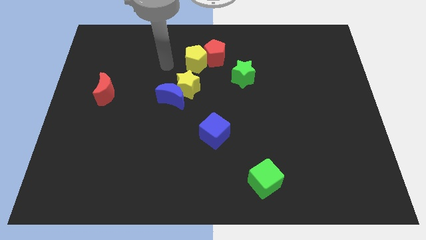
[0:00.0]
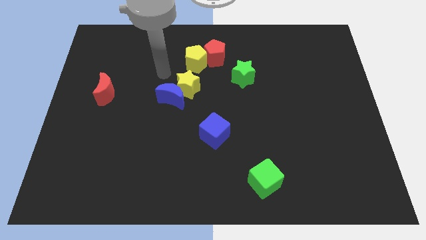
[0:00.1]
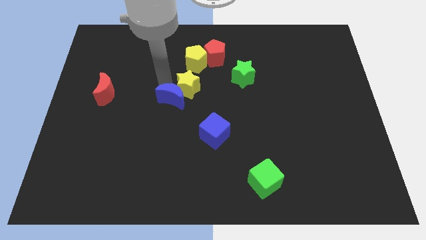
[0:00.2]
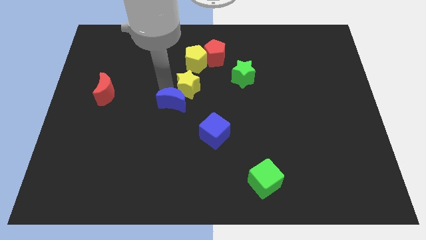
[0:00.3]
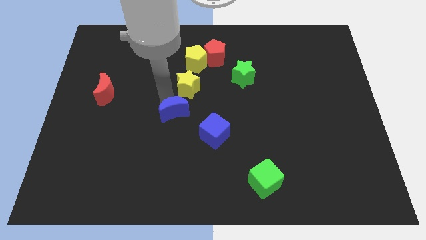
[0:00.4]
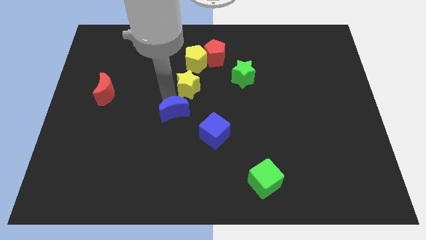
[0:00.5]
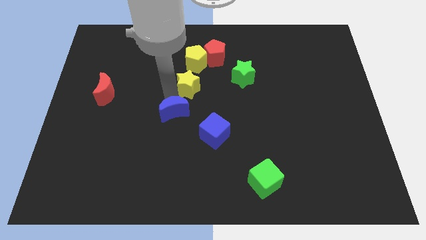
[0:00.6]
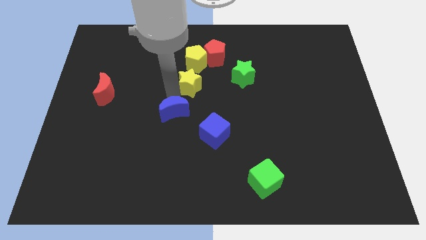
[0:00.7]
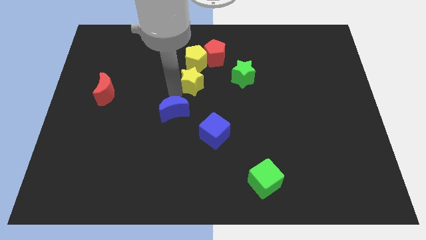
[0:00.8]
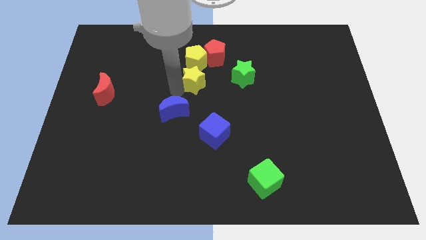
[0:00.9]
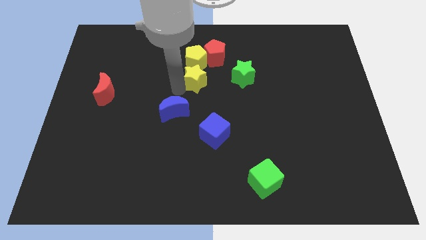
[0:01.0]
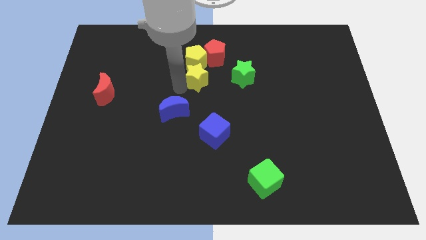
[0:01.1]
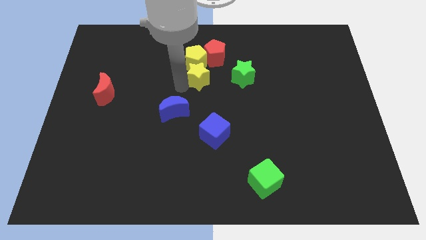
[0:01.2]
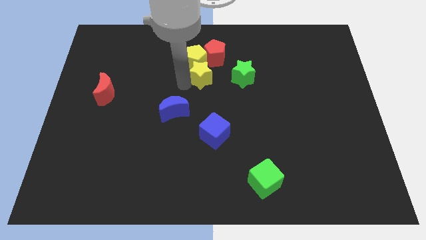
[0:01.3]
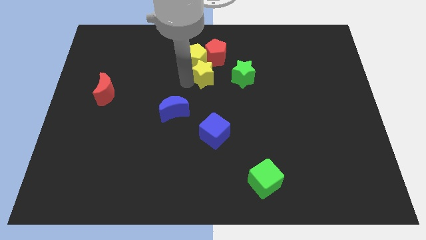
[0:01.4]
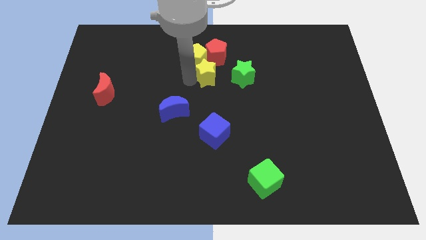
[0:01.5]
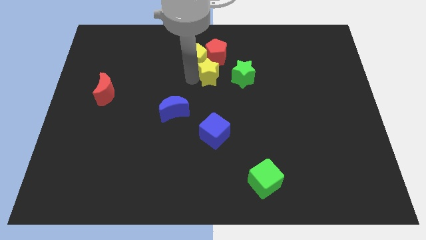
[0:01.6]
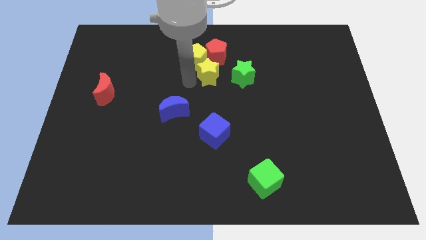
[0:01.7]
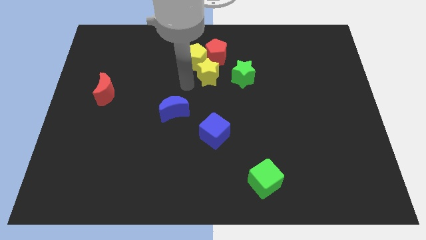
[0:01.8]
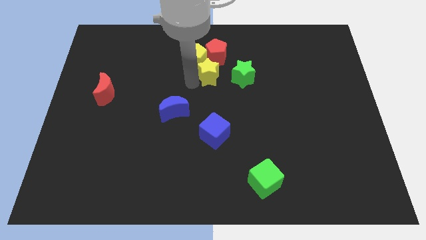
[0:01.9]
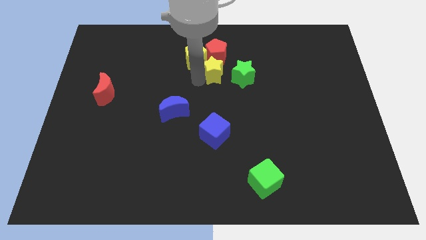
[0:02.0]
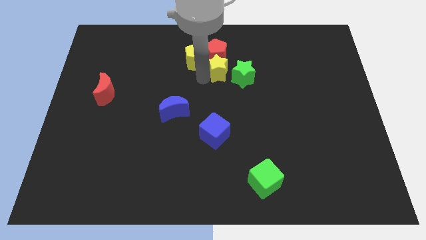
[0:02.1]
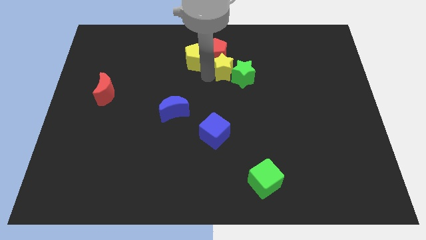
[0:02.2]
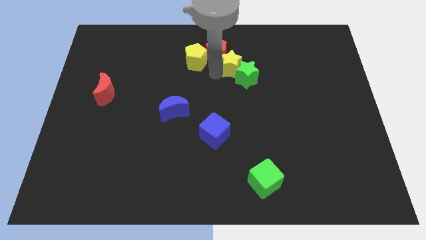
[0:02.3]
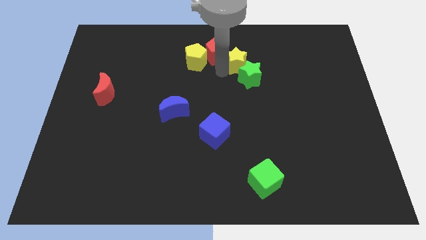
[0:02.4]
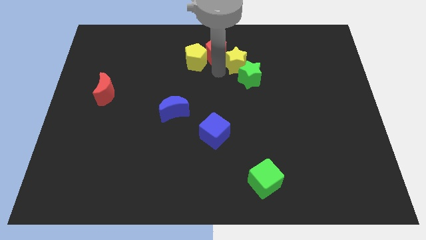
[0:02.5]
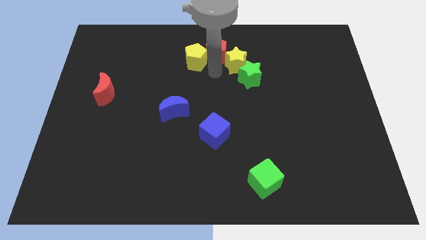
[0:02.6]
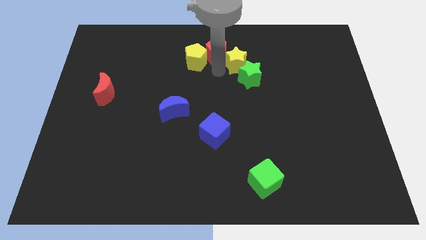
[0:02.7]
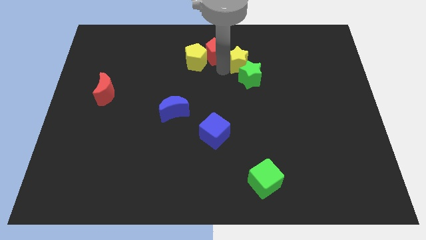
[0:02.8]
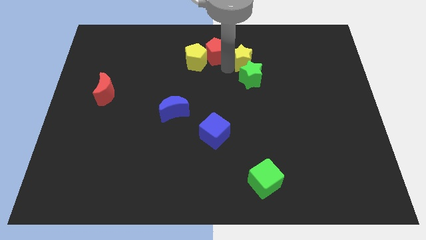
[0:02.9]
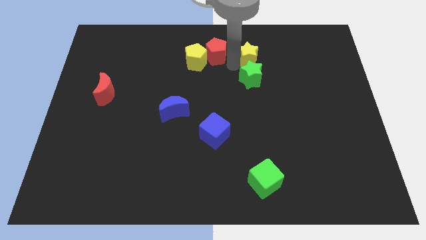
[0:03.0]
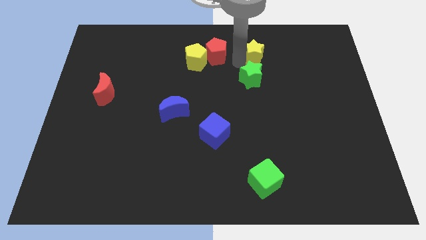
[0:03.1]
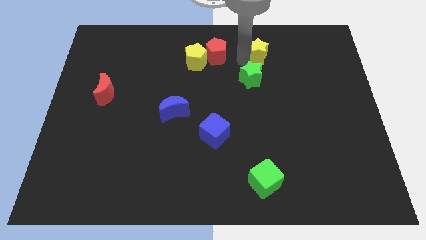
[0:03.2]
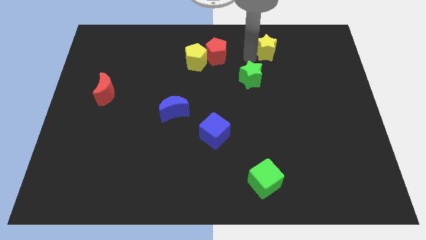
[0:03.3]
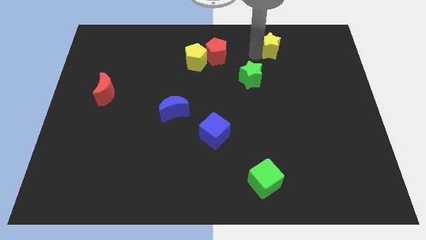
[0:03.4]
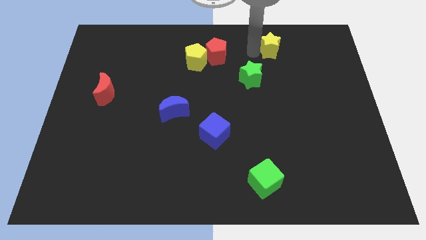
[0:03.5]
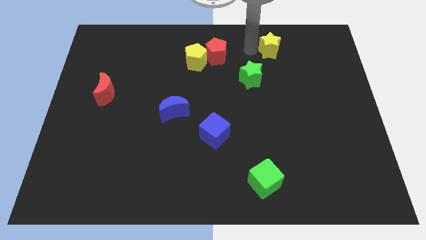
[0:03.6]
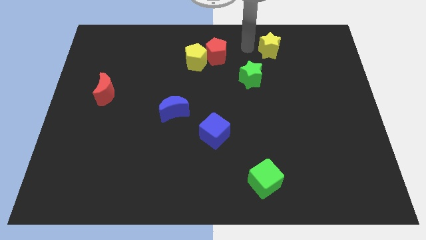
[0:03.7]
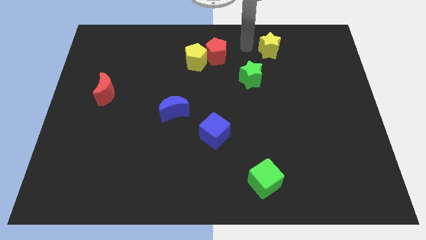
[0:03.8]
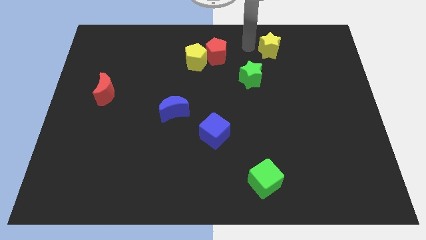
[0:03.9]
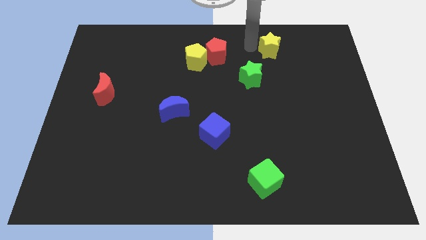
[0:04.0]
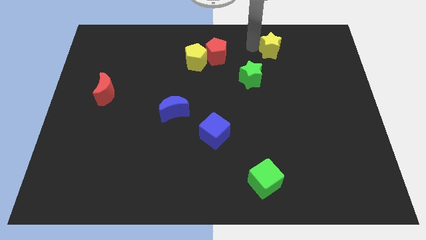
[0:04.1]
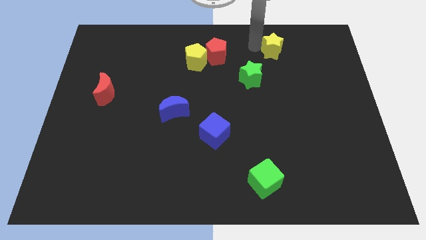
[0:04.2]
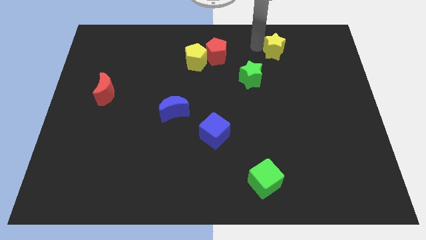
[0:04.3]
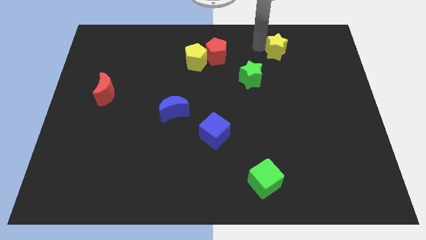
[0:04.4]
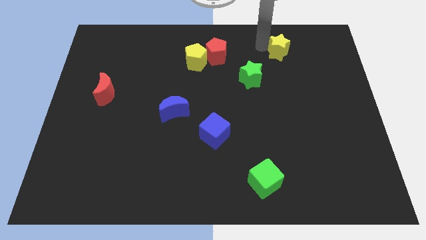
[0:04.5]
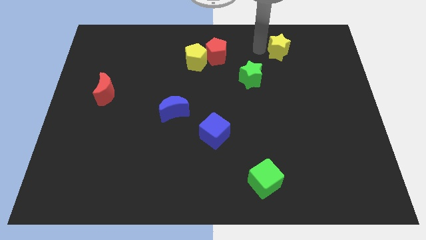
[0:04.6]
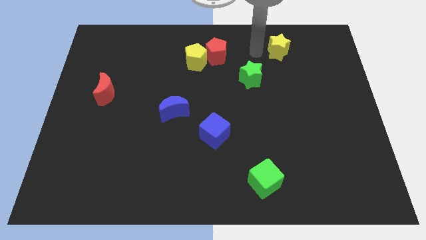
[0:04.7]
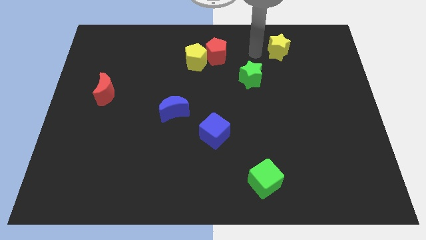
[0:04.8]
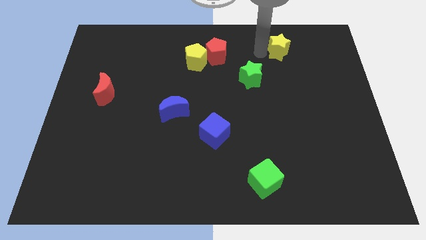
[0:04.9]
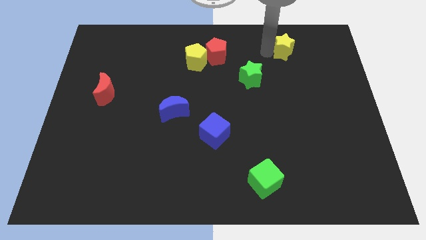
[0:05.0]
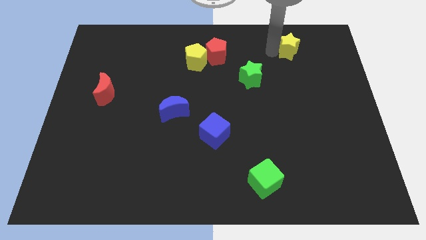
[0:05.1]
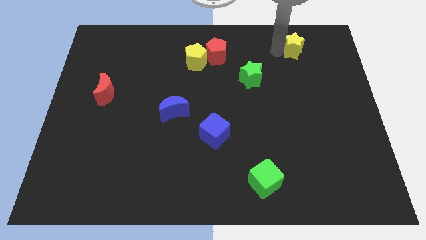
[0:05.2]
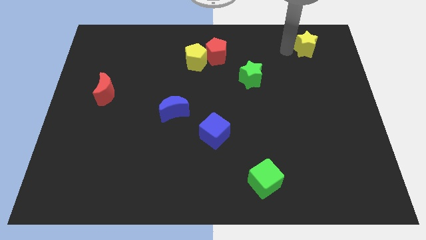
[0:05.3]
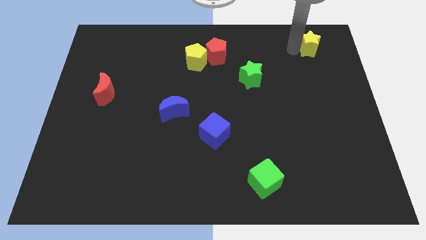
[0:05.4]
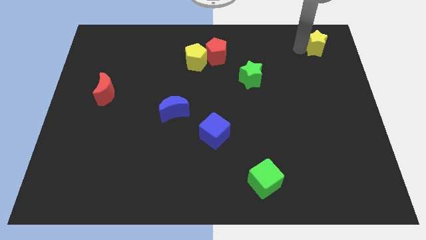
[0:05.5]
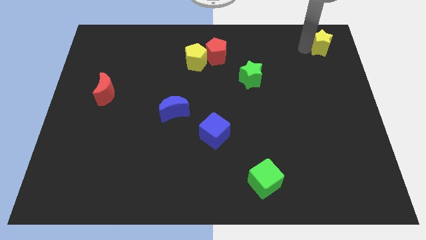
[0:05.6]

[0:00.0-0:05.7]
push the yellow star to the top right

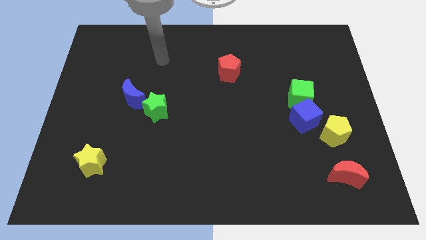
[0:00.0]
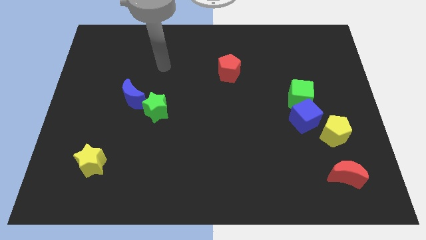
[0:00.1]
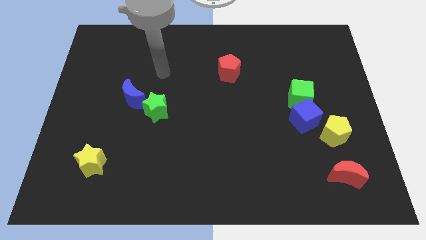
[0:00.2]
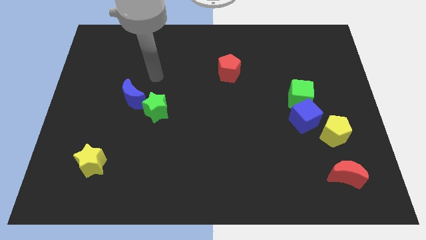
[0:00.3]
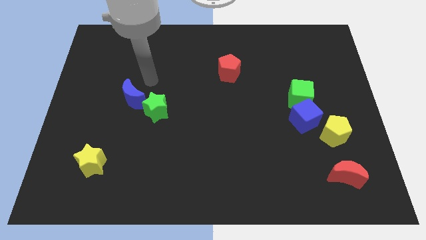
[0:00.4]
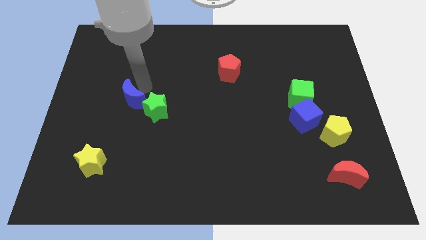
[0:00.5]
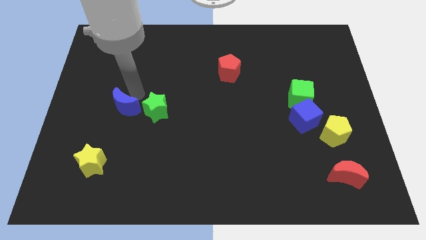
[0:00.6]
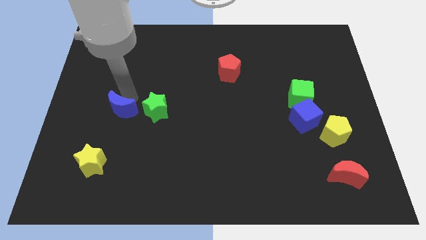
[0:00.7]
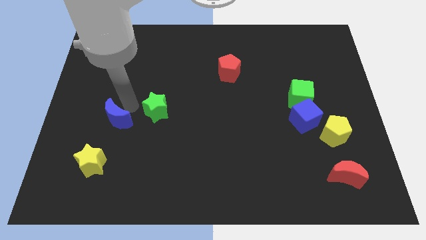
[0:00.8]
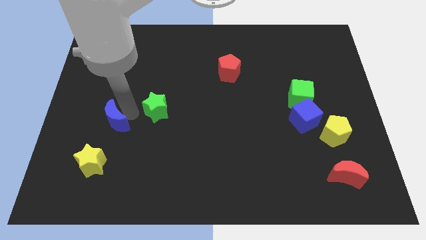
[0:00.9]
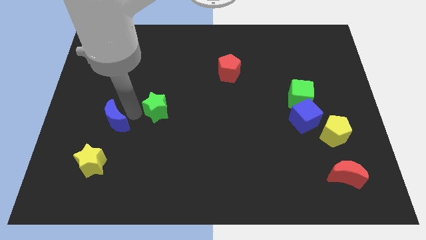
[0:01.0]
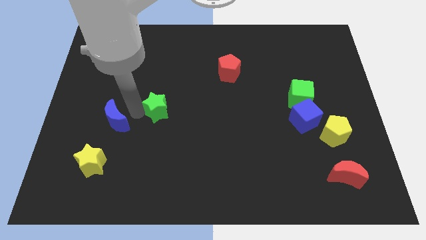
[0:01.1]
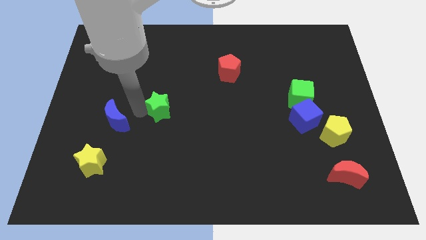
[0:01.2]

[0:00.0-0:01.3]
move the green star to the middle

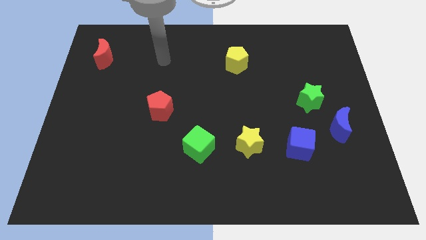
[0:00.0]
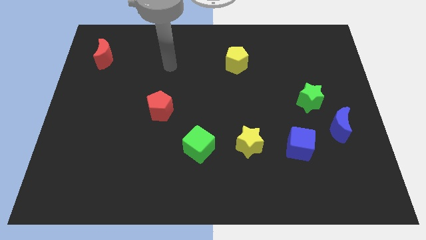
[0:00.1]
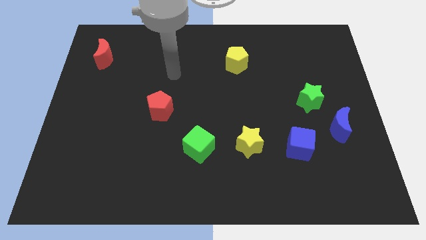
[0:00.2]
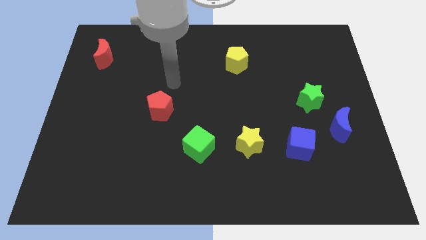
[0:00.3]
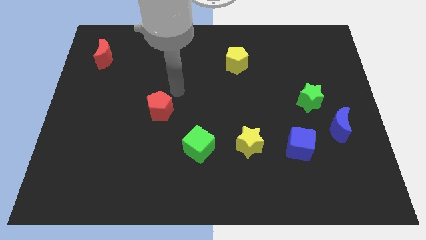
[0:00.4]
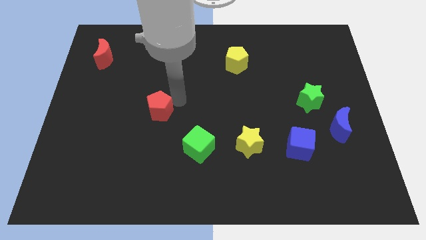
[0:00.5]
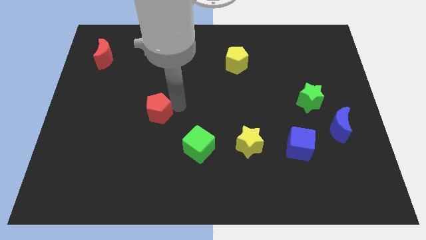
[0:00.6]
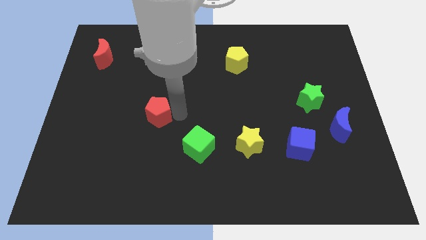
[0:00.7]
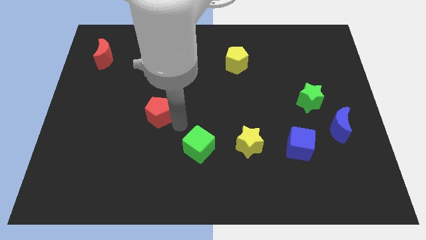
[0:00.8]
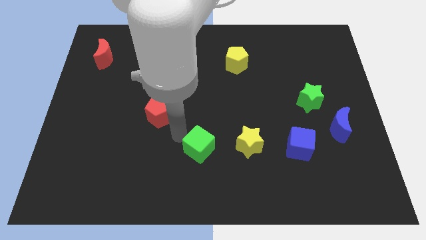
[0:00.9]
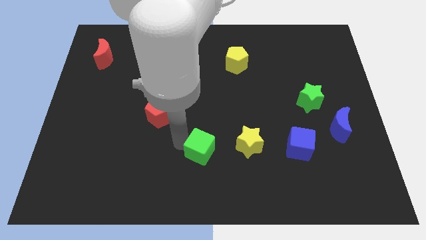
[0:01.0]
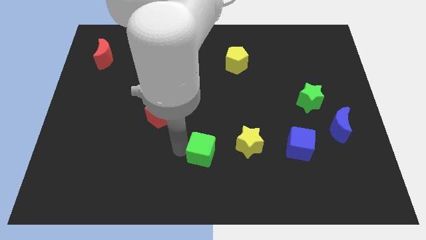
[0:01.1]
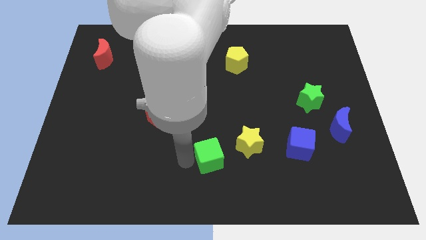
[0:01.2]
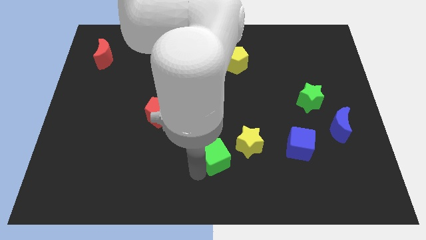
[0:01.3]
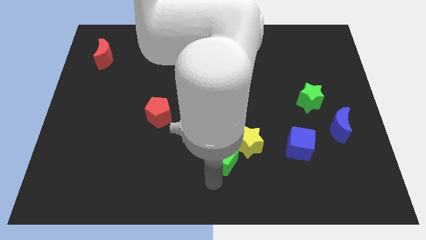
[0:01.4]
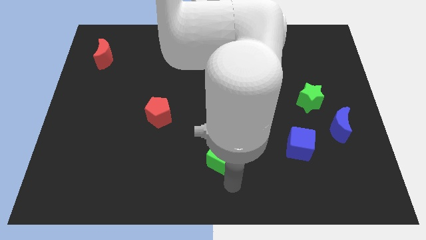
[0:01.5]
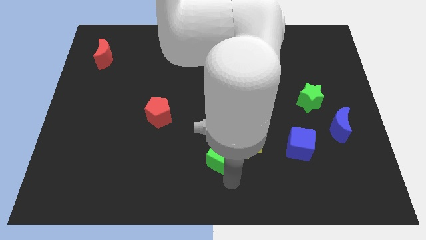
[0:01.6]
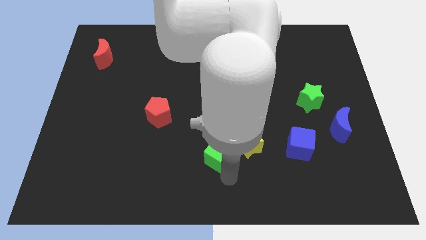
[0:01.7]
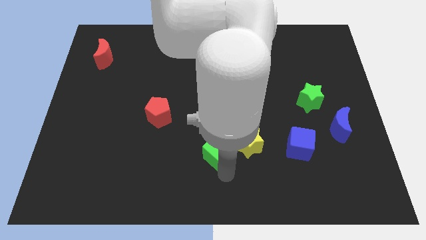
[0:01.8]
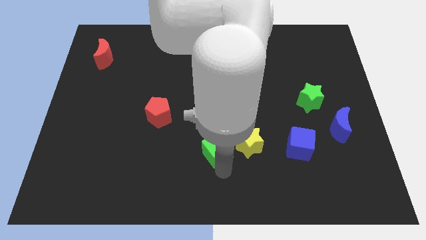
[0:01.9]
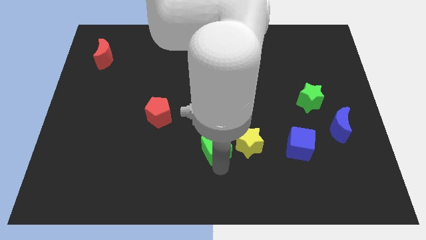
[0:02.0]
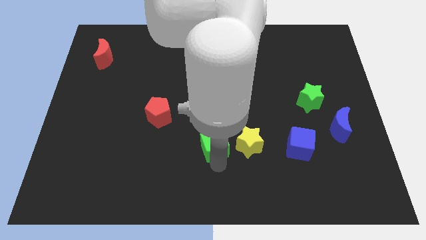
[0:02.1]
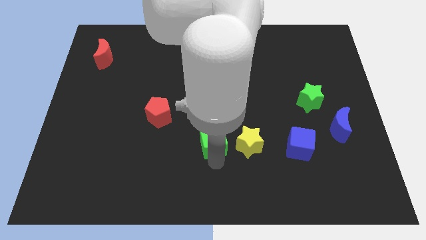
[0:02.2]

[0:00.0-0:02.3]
push the green cube to the center of the board
